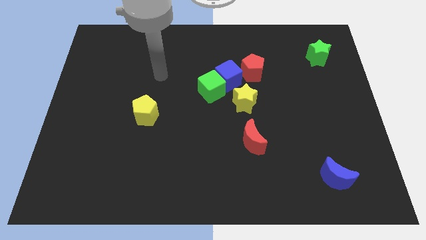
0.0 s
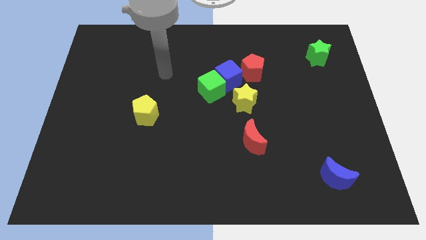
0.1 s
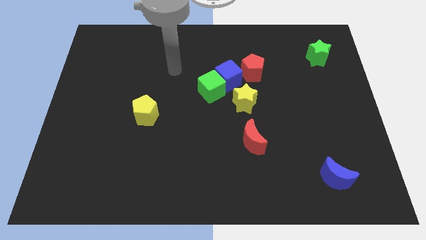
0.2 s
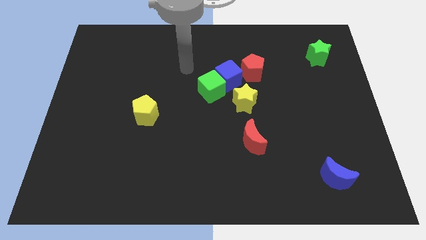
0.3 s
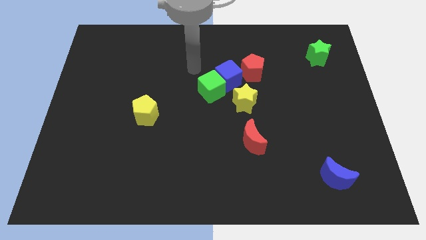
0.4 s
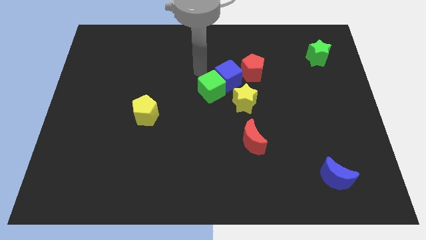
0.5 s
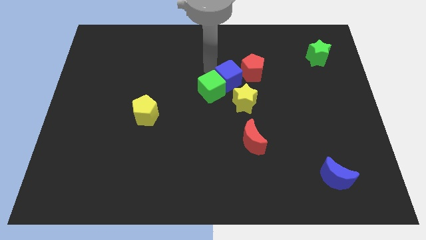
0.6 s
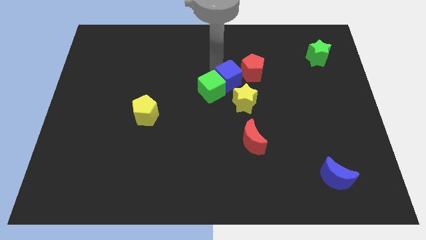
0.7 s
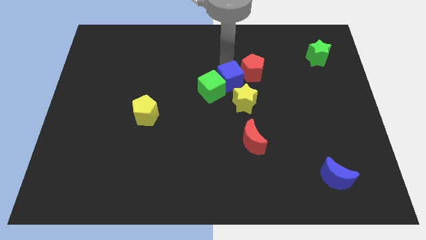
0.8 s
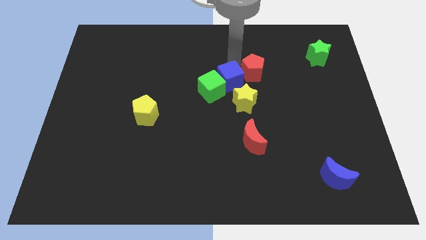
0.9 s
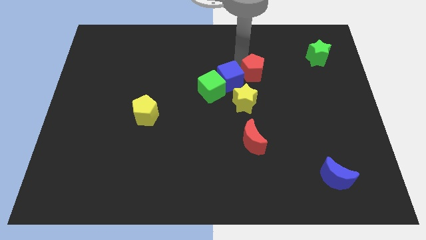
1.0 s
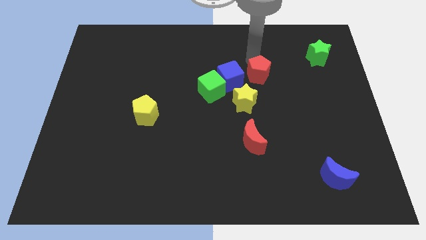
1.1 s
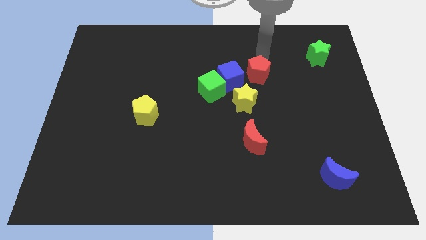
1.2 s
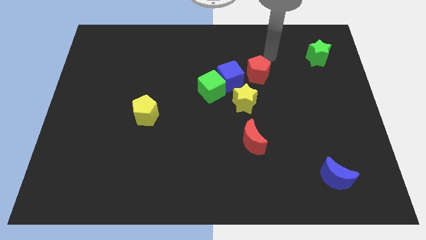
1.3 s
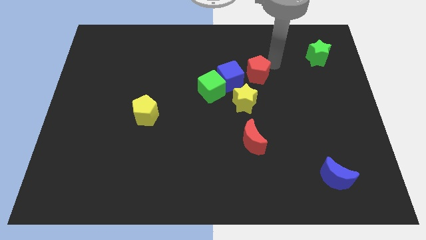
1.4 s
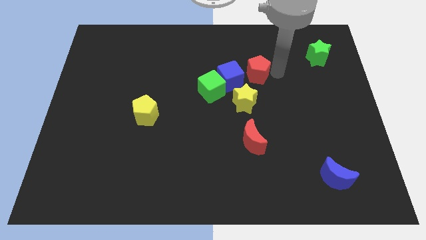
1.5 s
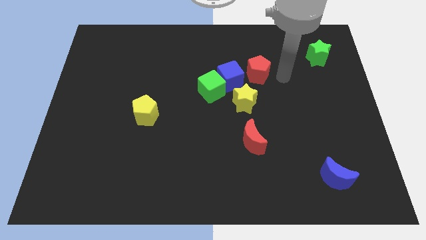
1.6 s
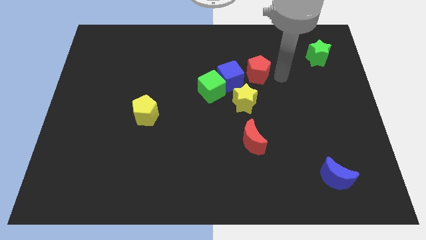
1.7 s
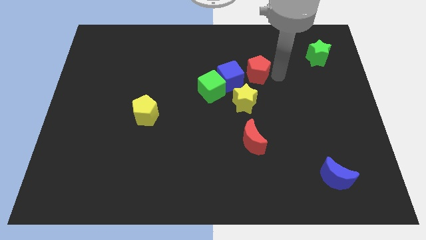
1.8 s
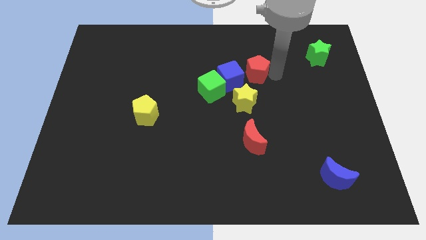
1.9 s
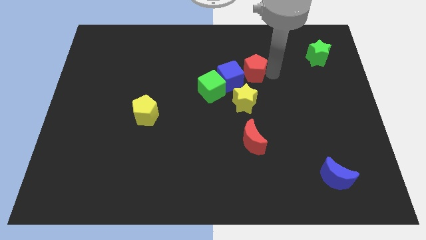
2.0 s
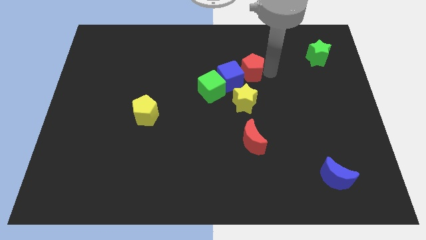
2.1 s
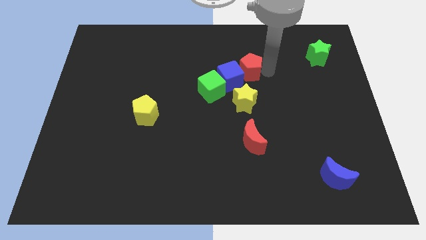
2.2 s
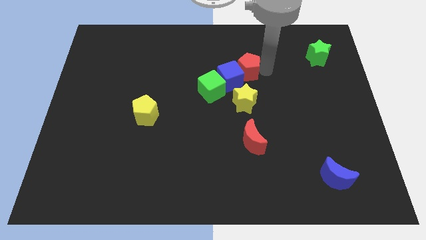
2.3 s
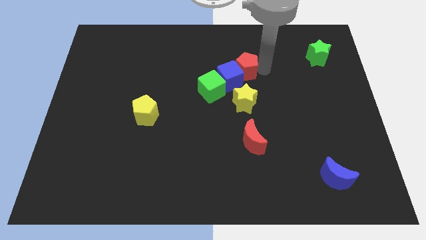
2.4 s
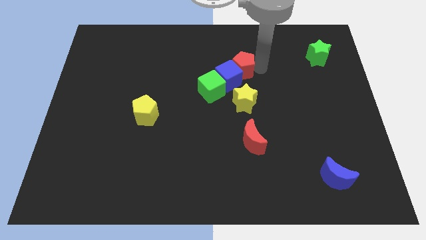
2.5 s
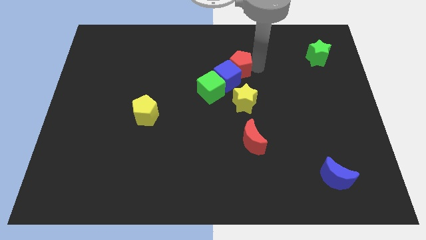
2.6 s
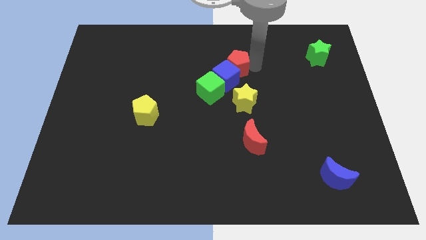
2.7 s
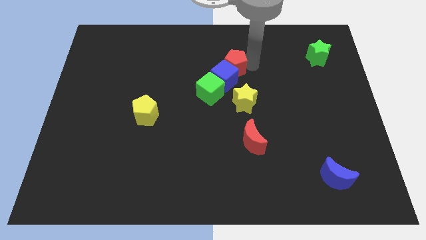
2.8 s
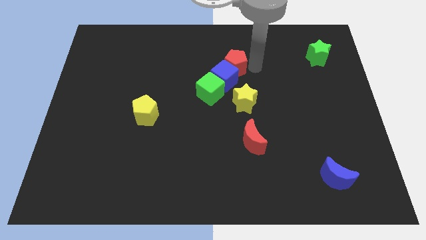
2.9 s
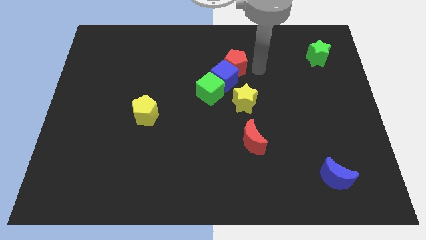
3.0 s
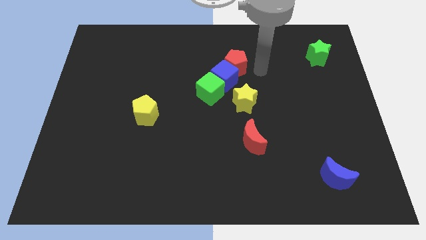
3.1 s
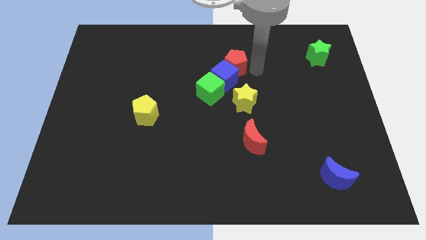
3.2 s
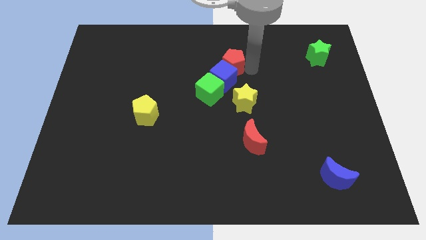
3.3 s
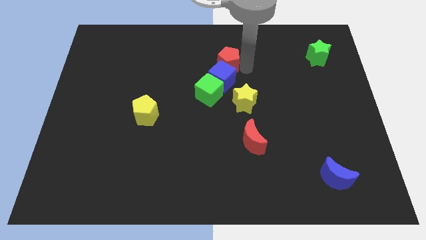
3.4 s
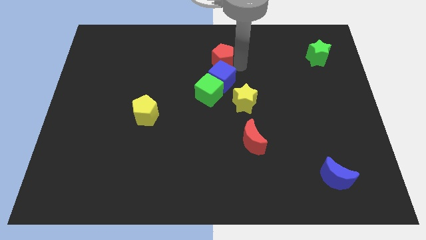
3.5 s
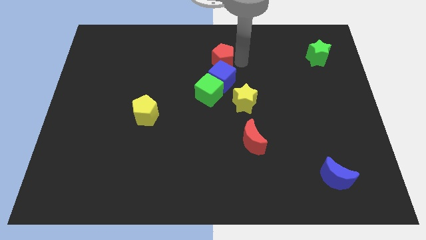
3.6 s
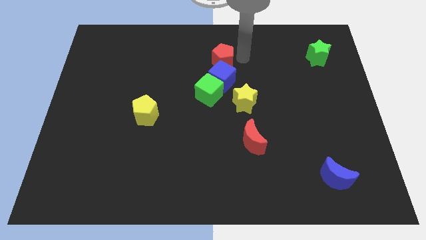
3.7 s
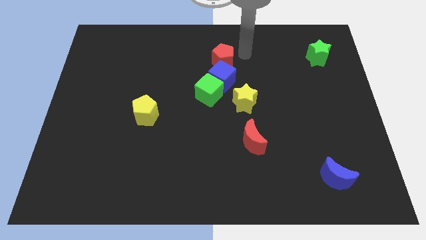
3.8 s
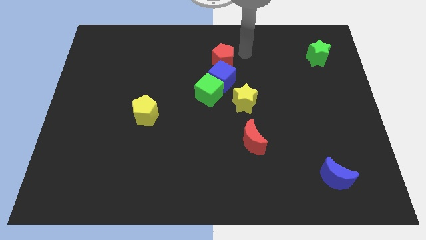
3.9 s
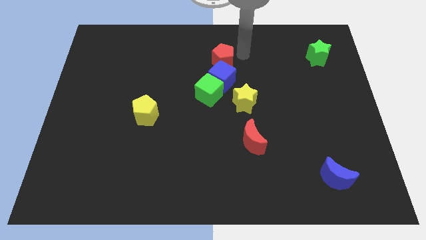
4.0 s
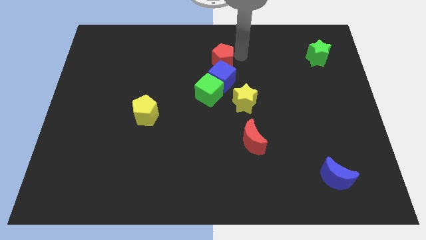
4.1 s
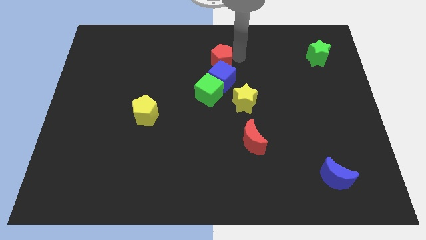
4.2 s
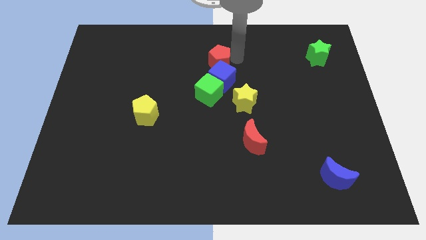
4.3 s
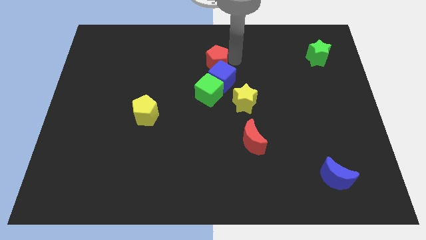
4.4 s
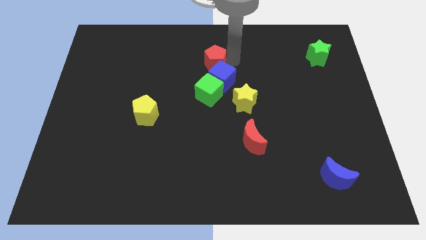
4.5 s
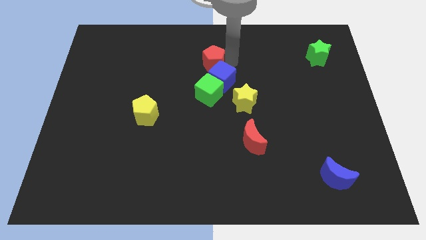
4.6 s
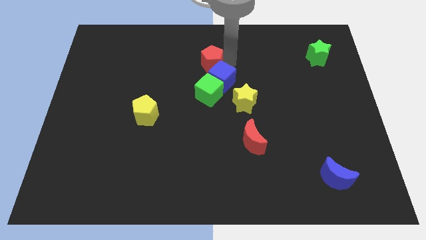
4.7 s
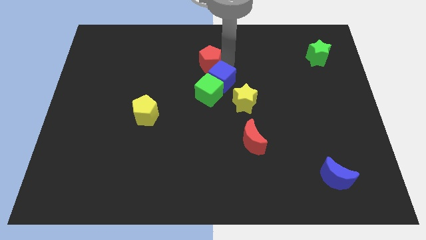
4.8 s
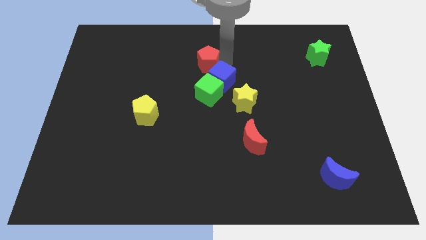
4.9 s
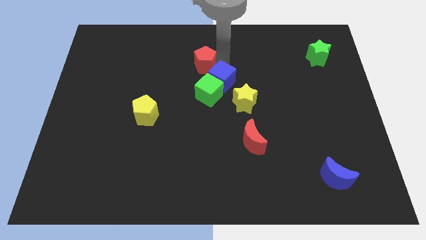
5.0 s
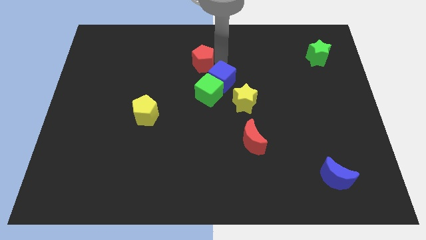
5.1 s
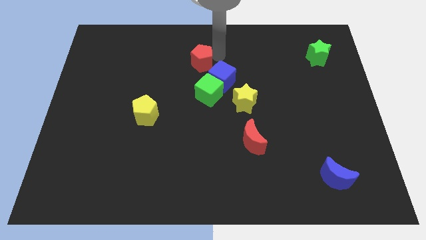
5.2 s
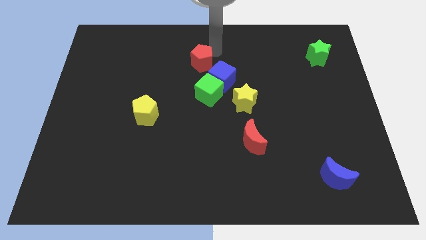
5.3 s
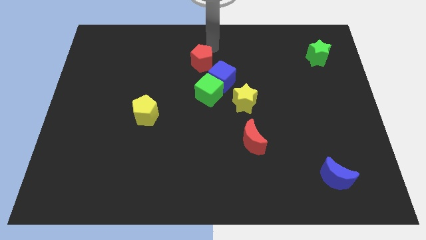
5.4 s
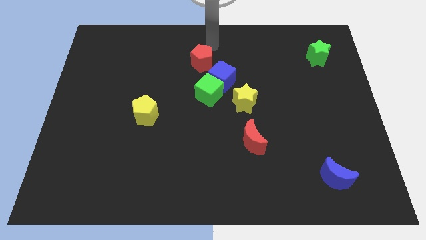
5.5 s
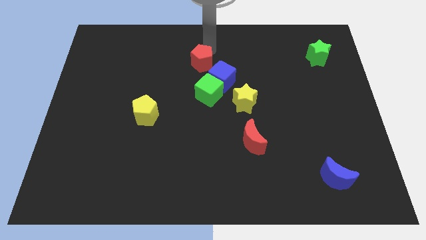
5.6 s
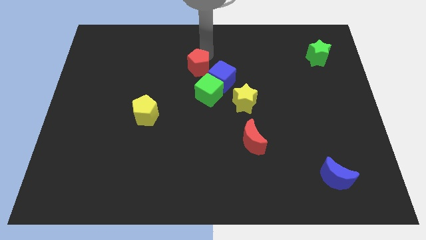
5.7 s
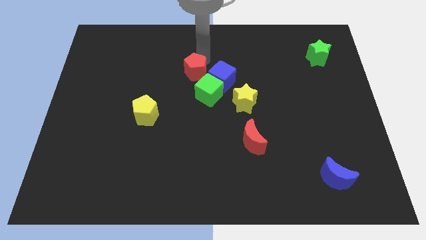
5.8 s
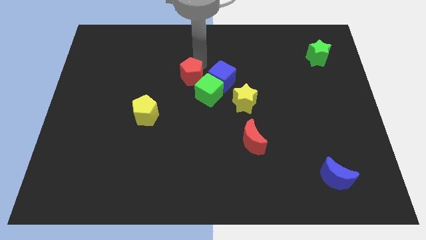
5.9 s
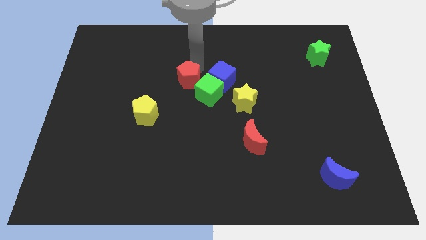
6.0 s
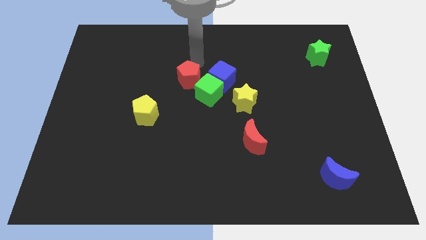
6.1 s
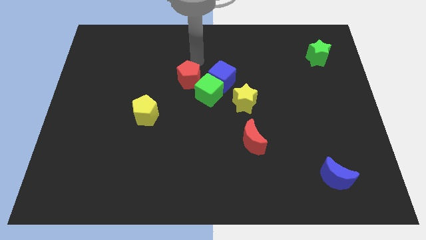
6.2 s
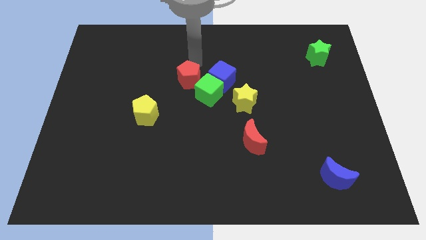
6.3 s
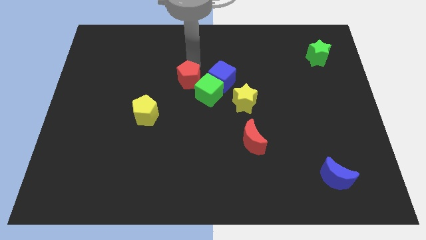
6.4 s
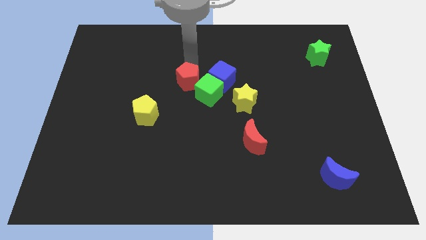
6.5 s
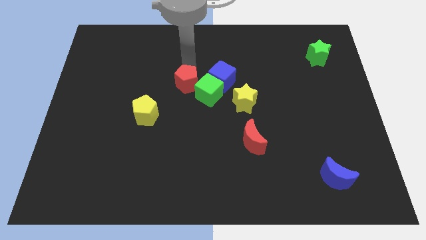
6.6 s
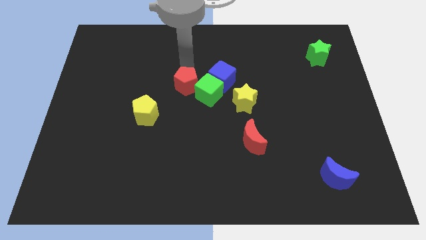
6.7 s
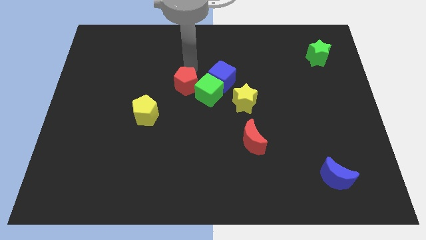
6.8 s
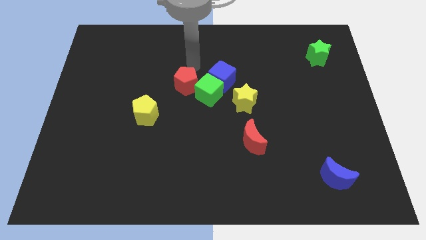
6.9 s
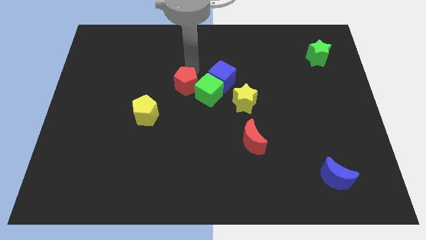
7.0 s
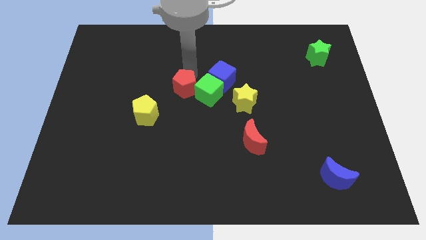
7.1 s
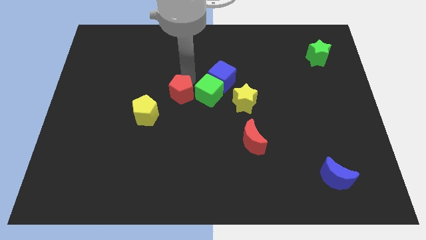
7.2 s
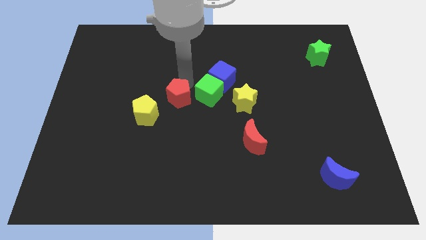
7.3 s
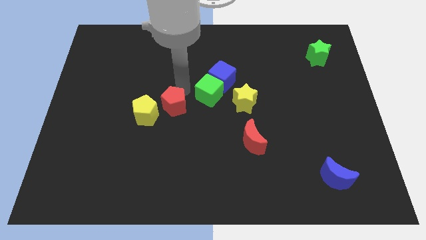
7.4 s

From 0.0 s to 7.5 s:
move the red pentagon down and to the left

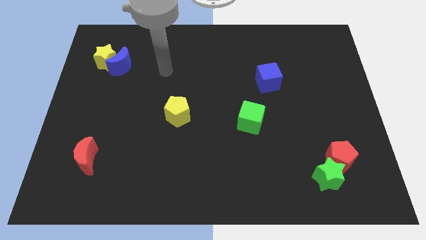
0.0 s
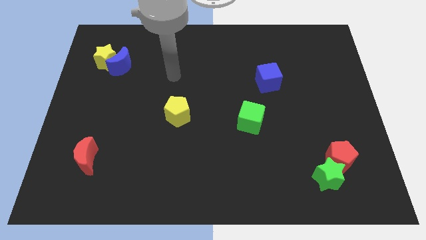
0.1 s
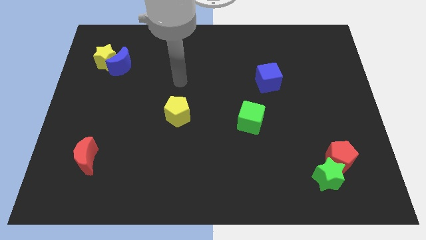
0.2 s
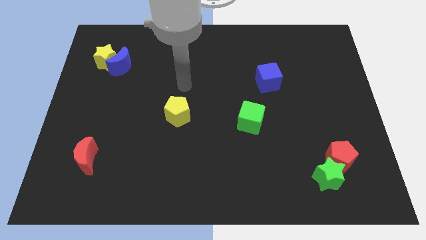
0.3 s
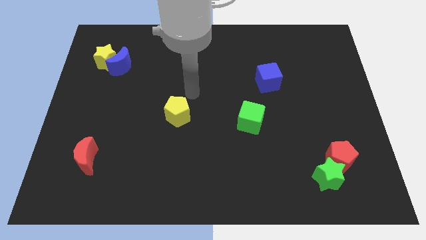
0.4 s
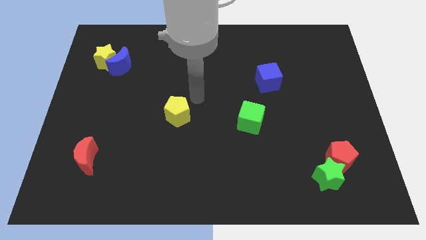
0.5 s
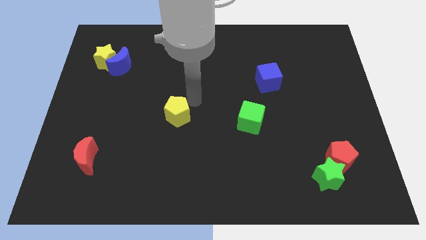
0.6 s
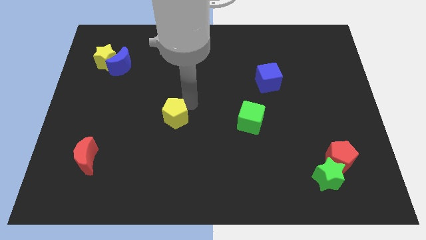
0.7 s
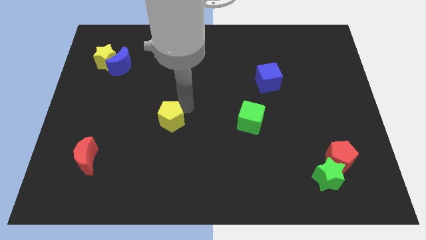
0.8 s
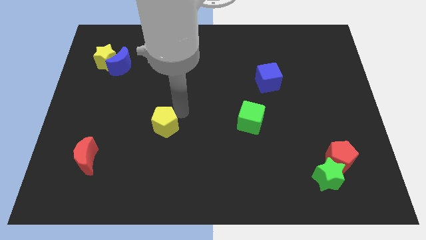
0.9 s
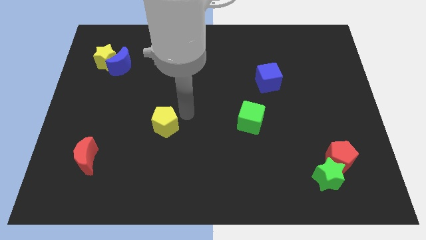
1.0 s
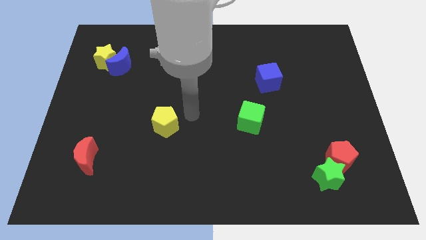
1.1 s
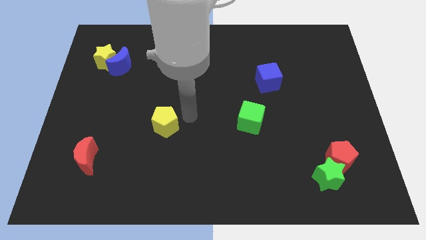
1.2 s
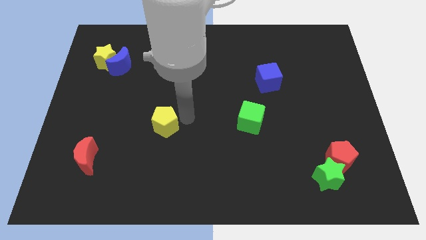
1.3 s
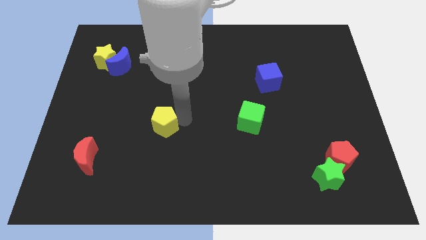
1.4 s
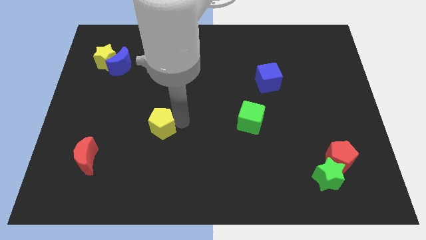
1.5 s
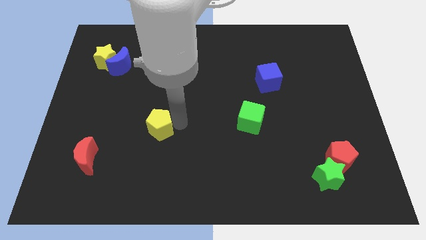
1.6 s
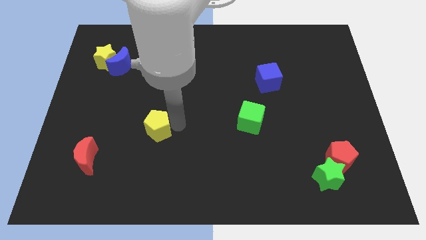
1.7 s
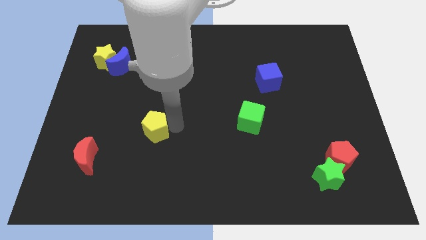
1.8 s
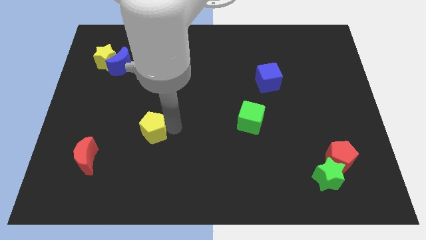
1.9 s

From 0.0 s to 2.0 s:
push the yellow pentagon a little downwards and to the left
